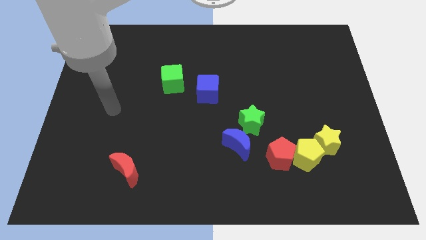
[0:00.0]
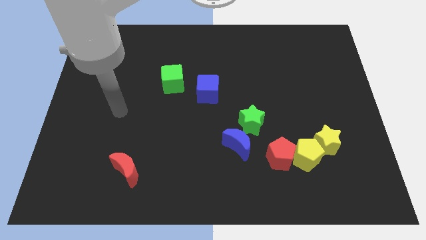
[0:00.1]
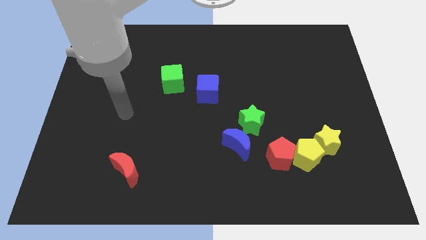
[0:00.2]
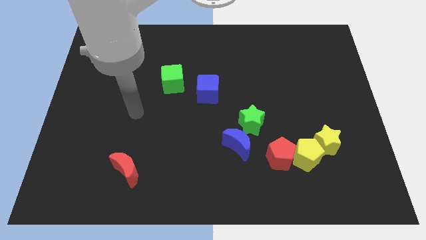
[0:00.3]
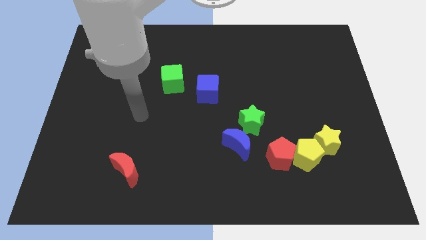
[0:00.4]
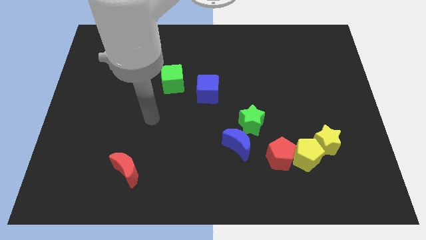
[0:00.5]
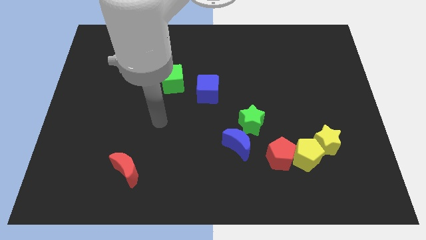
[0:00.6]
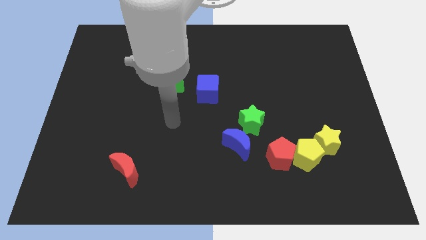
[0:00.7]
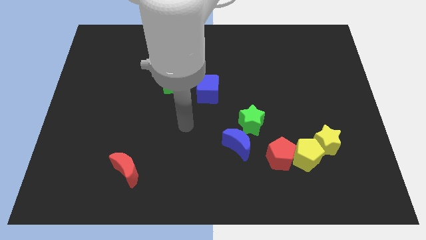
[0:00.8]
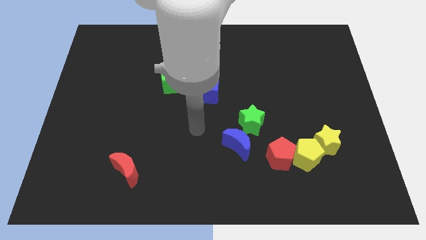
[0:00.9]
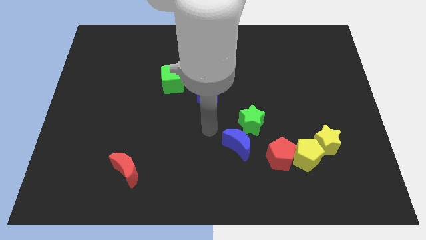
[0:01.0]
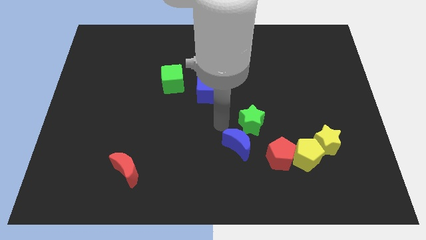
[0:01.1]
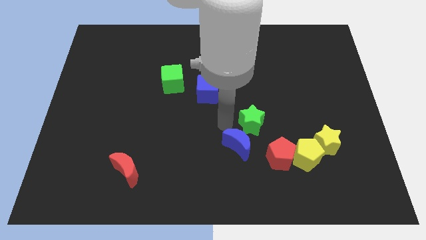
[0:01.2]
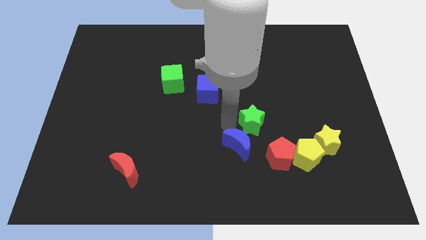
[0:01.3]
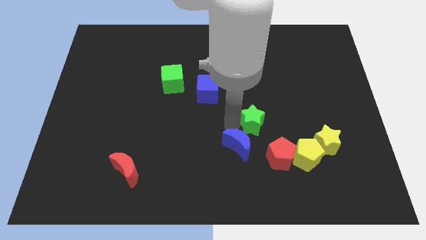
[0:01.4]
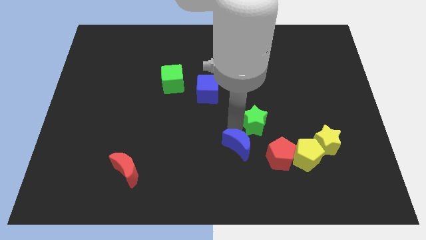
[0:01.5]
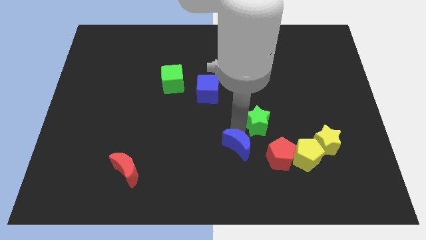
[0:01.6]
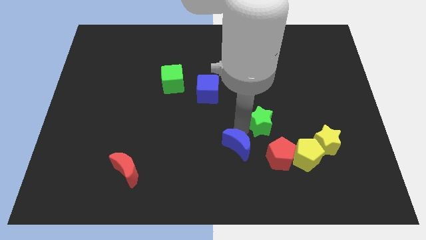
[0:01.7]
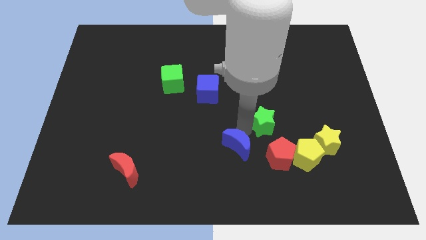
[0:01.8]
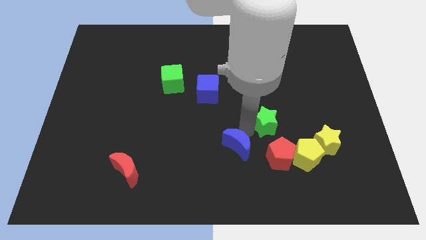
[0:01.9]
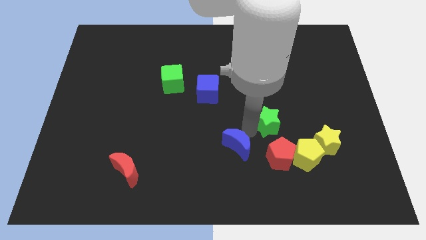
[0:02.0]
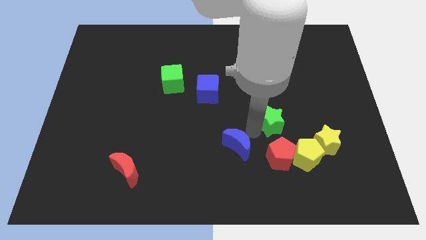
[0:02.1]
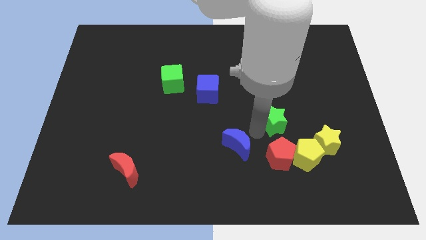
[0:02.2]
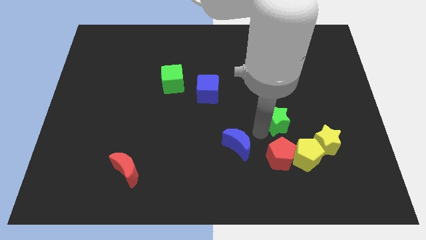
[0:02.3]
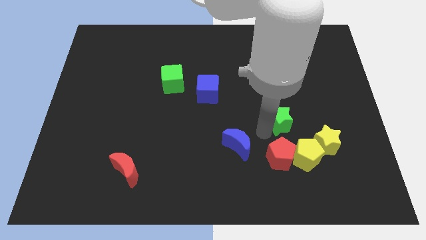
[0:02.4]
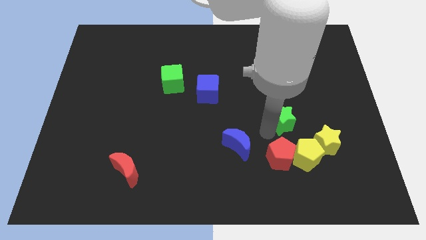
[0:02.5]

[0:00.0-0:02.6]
push the green star to the right a little

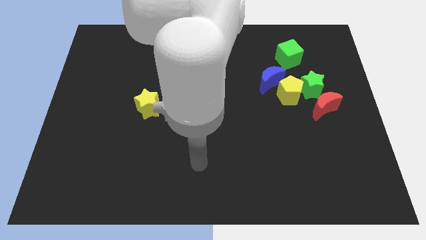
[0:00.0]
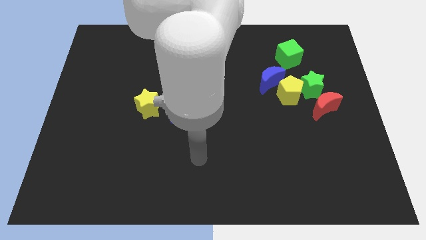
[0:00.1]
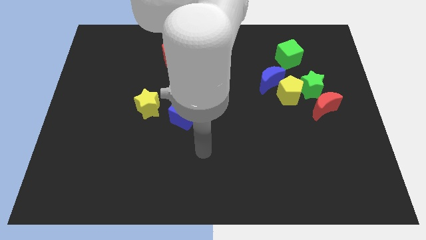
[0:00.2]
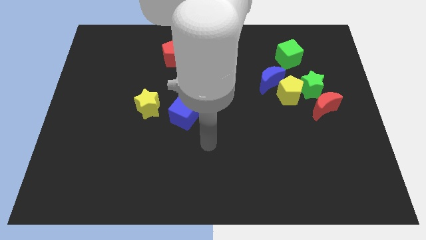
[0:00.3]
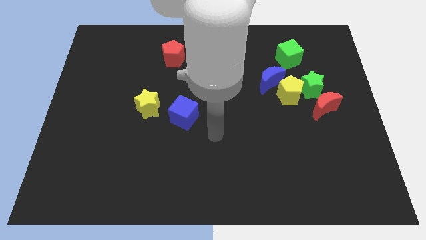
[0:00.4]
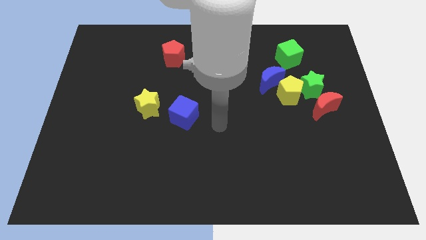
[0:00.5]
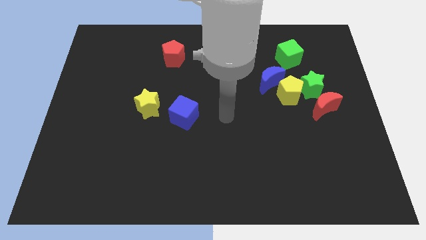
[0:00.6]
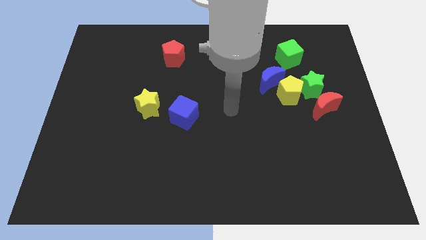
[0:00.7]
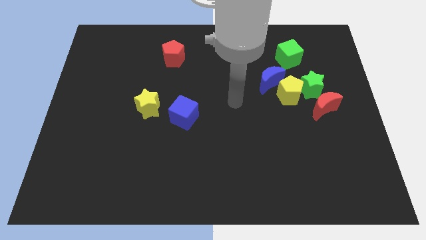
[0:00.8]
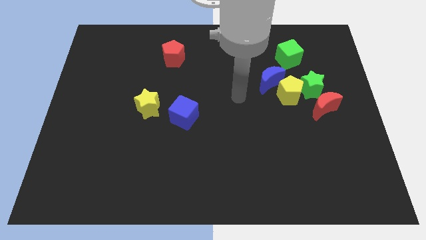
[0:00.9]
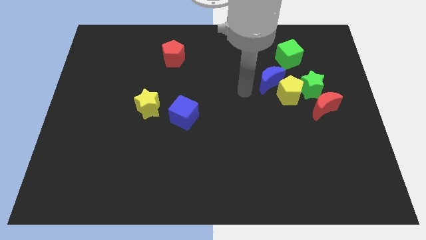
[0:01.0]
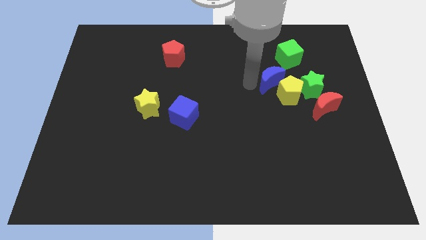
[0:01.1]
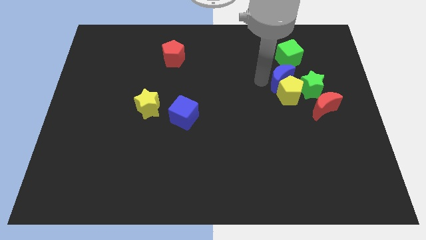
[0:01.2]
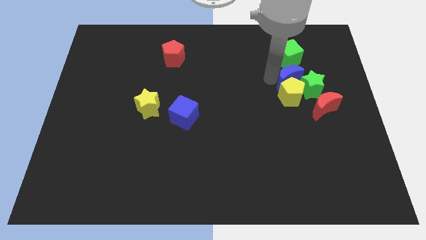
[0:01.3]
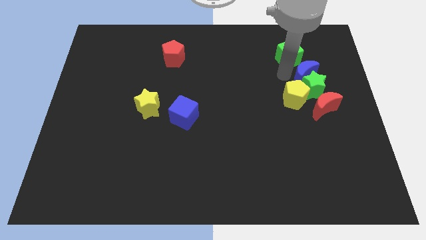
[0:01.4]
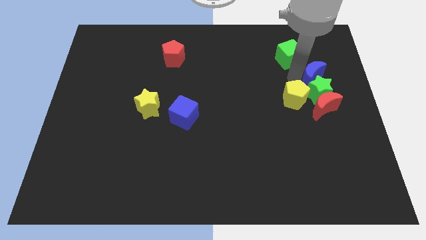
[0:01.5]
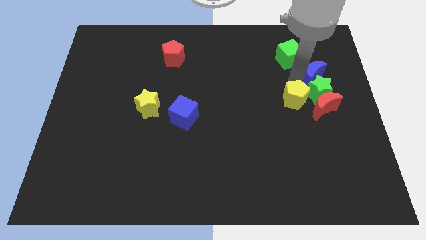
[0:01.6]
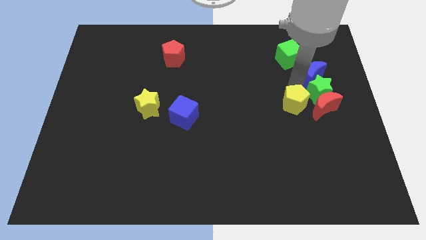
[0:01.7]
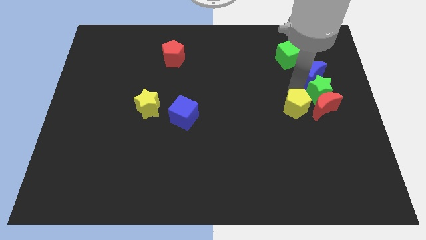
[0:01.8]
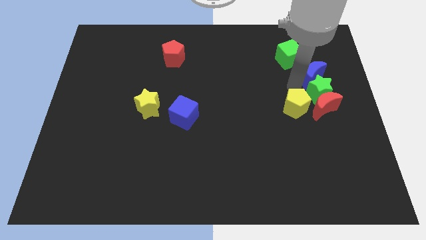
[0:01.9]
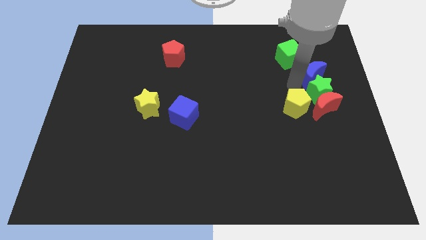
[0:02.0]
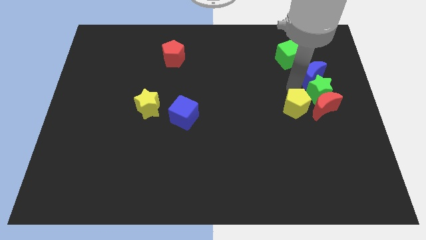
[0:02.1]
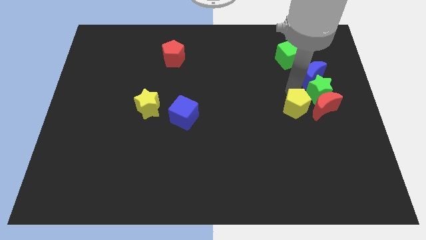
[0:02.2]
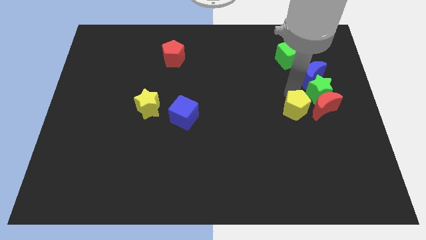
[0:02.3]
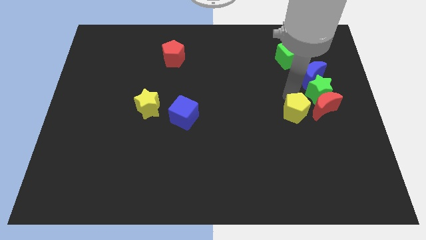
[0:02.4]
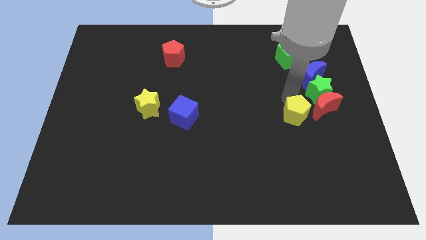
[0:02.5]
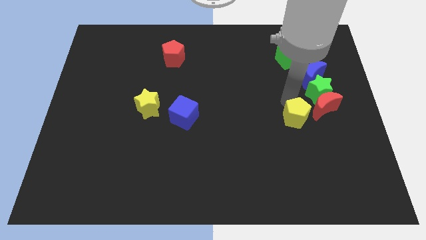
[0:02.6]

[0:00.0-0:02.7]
slightly move the yellow pentagon down

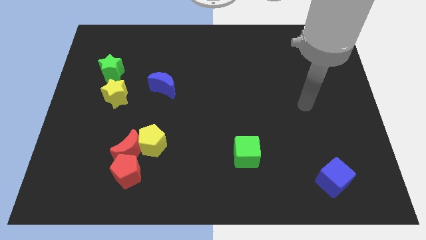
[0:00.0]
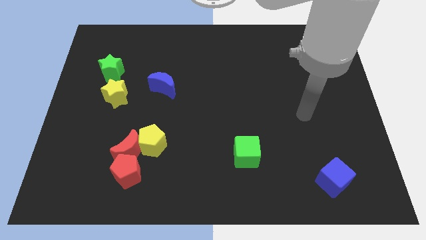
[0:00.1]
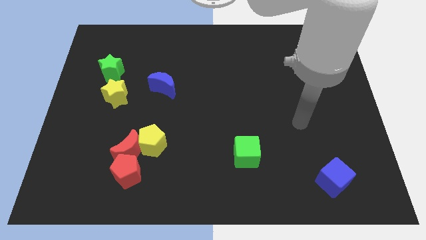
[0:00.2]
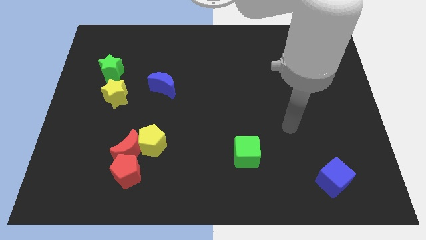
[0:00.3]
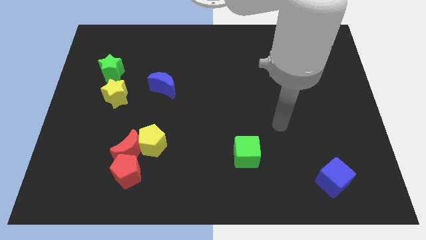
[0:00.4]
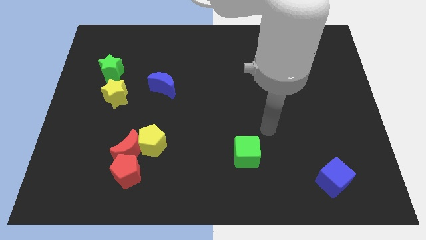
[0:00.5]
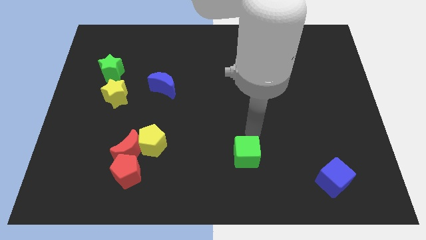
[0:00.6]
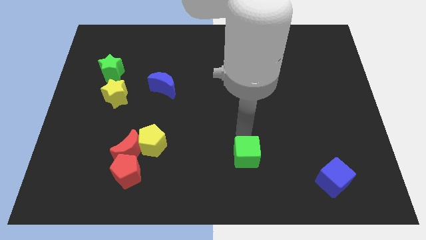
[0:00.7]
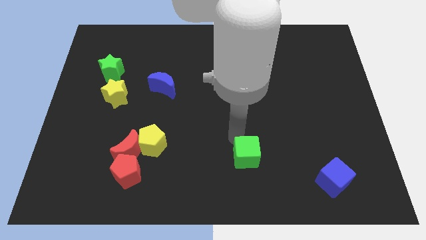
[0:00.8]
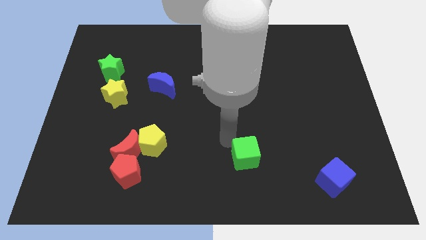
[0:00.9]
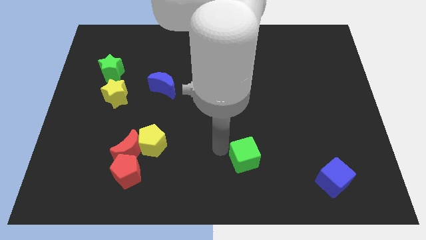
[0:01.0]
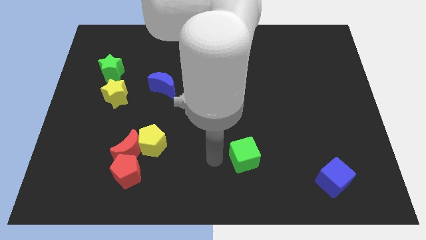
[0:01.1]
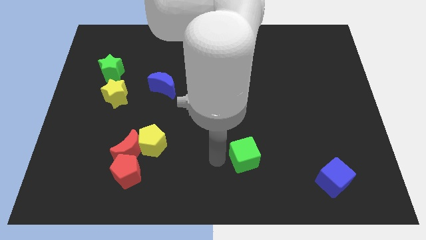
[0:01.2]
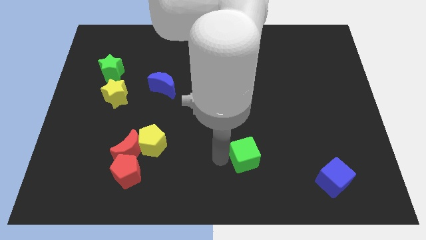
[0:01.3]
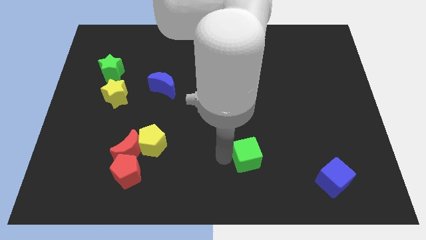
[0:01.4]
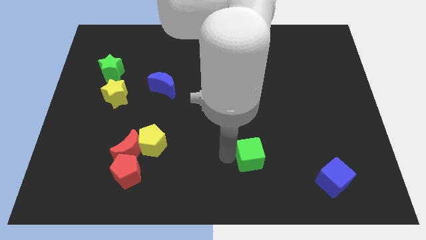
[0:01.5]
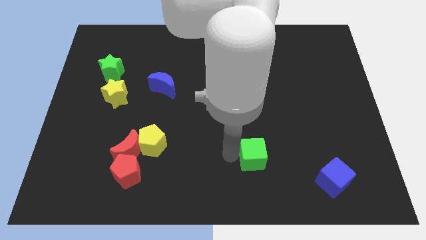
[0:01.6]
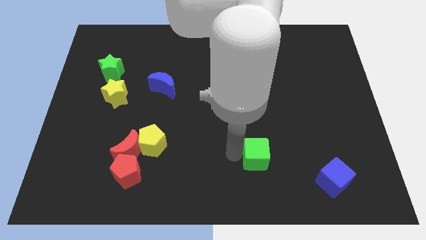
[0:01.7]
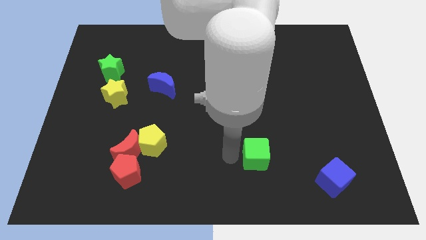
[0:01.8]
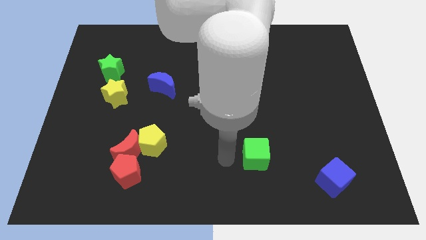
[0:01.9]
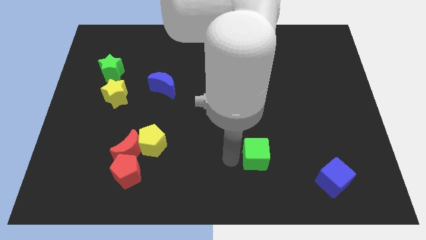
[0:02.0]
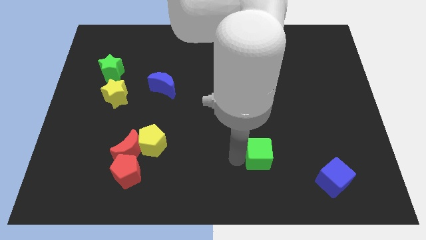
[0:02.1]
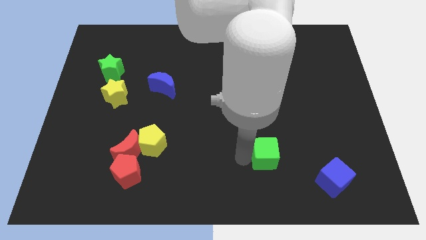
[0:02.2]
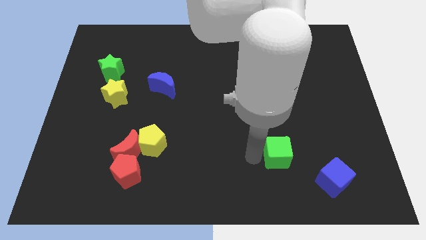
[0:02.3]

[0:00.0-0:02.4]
push the green cube a bit right

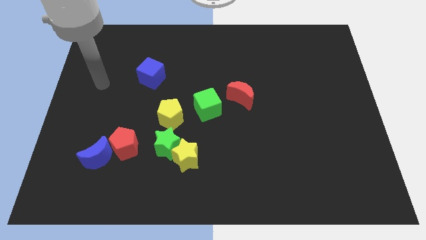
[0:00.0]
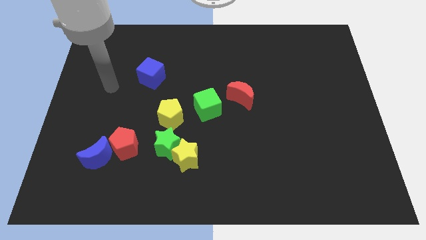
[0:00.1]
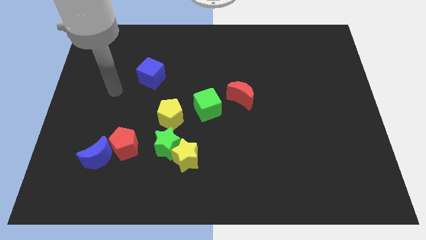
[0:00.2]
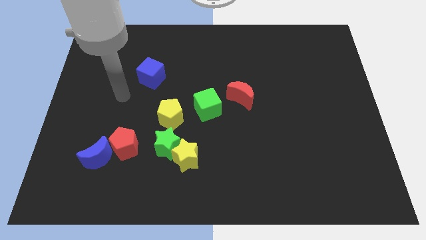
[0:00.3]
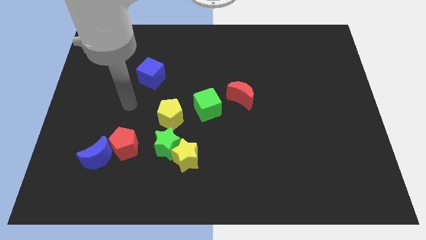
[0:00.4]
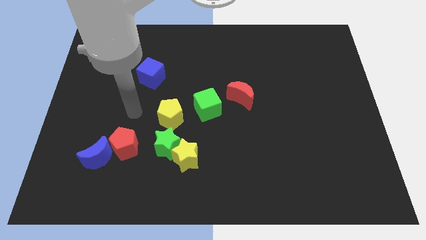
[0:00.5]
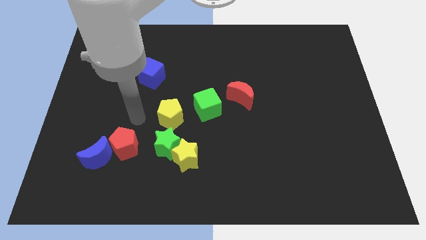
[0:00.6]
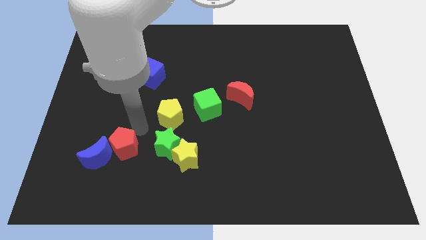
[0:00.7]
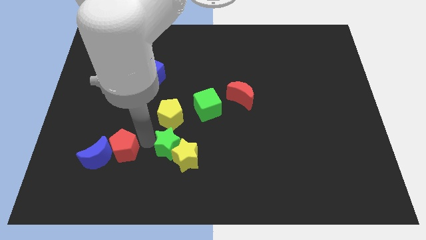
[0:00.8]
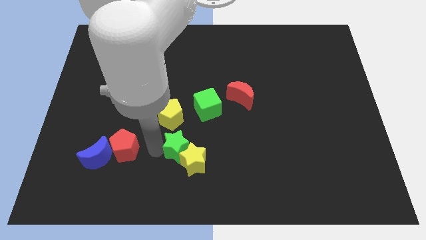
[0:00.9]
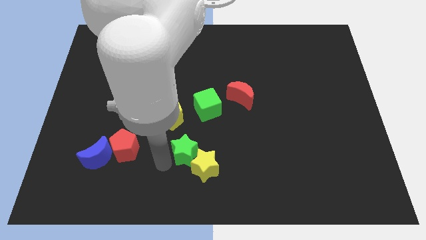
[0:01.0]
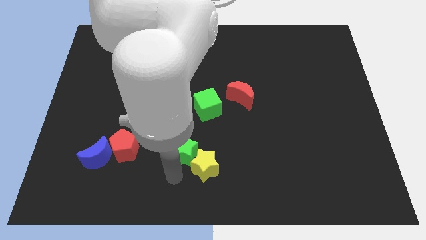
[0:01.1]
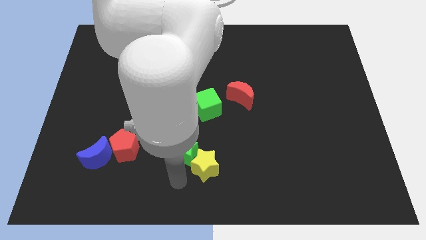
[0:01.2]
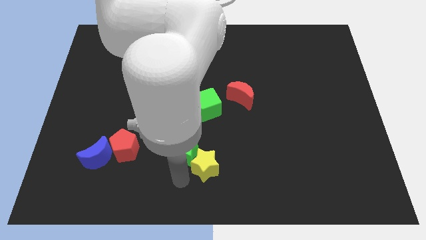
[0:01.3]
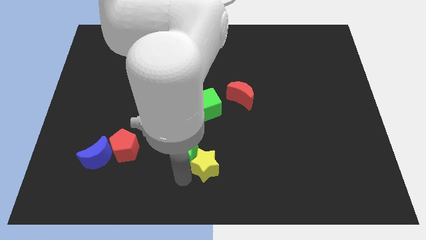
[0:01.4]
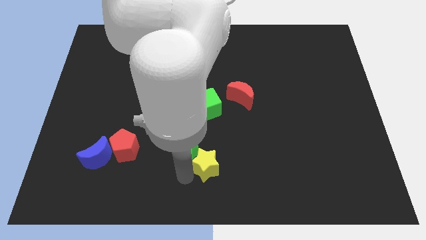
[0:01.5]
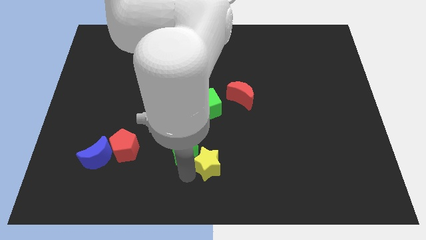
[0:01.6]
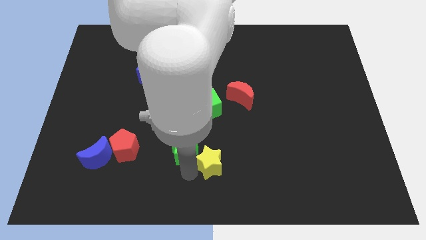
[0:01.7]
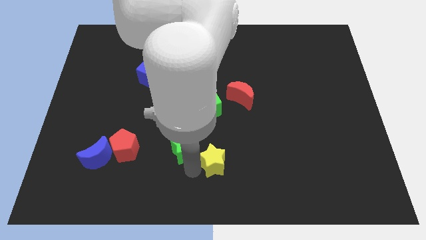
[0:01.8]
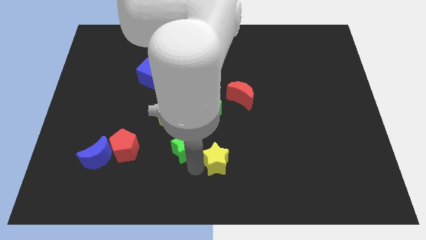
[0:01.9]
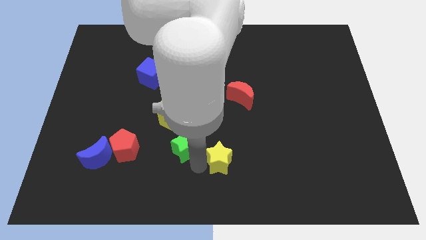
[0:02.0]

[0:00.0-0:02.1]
slightly push the yellow star right
